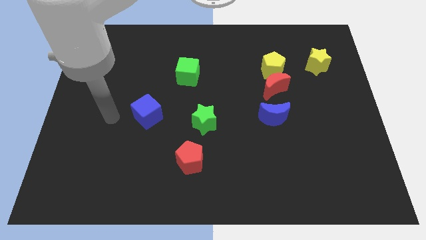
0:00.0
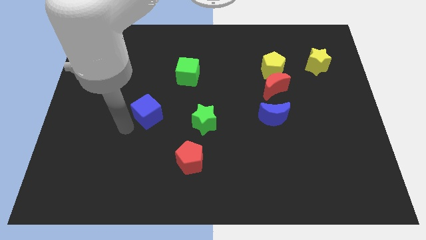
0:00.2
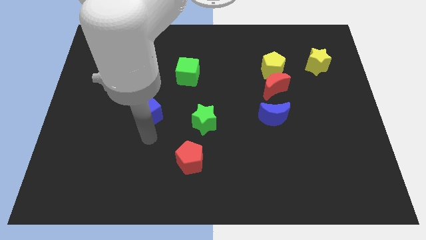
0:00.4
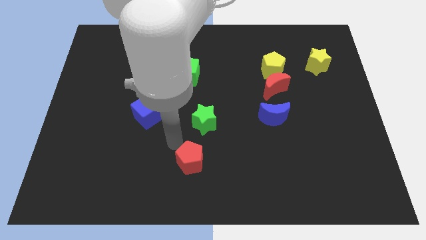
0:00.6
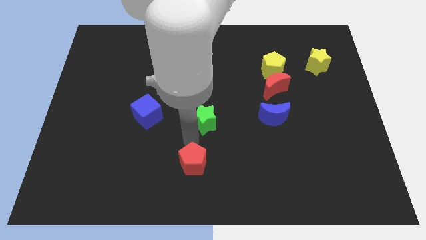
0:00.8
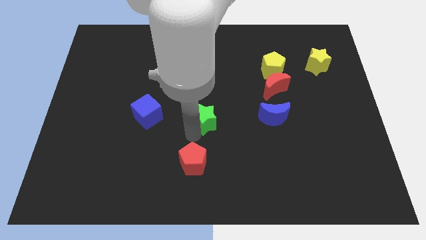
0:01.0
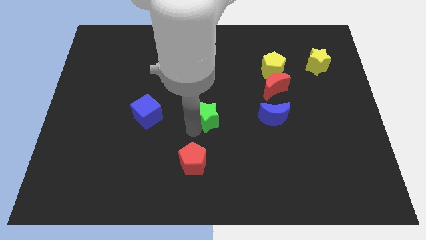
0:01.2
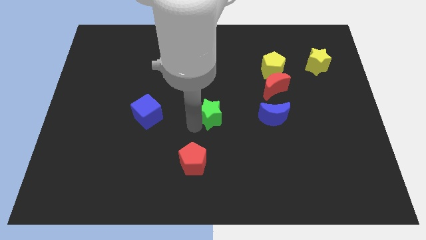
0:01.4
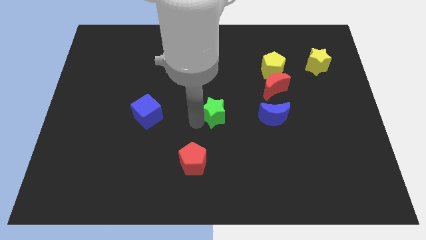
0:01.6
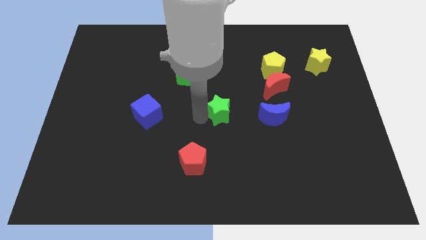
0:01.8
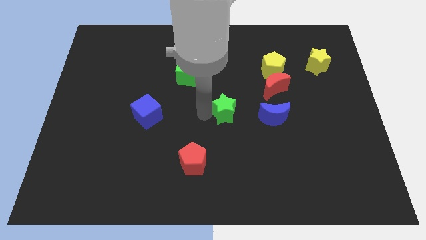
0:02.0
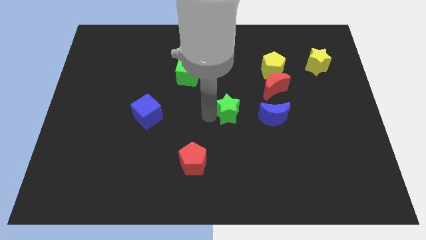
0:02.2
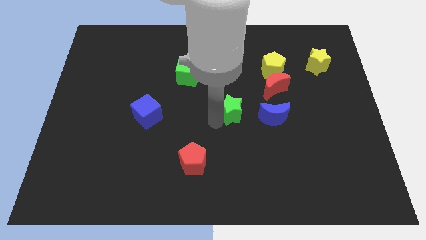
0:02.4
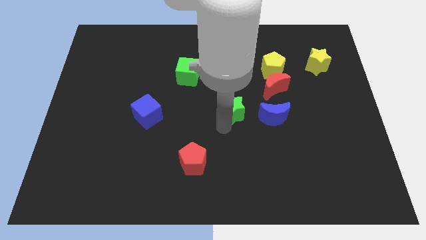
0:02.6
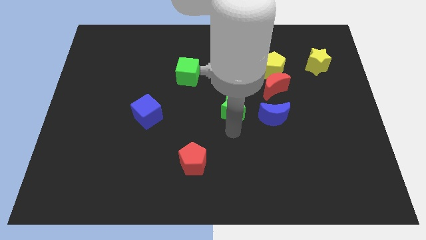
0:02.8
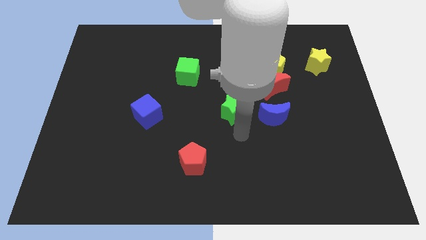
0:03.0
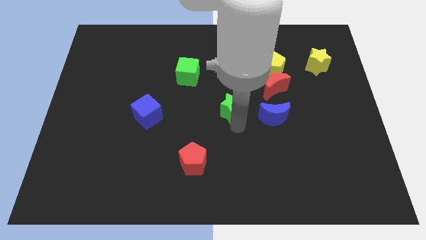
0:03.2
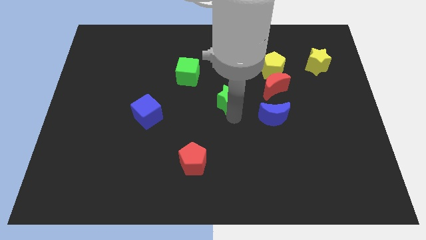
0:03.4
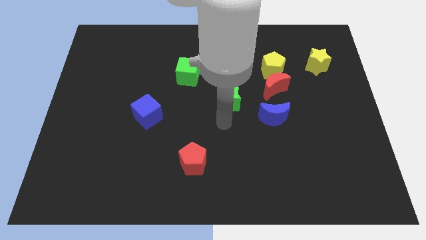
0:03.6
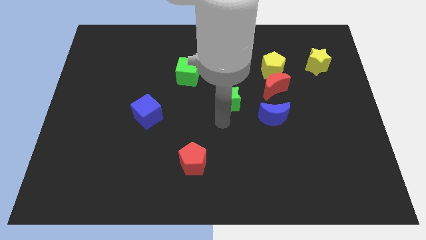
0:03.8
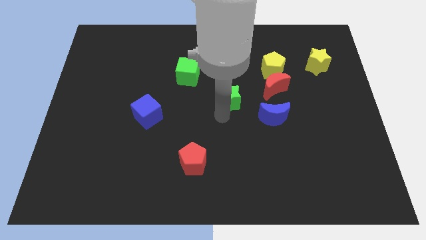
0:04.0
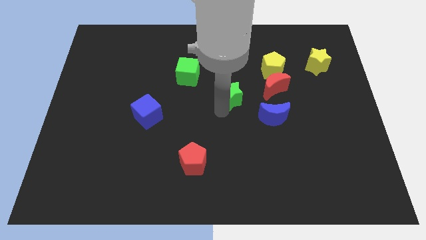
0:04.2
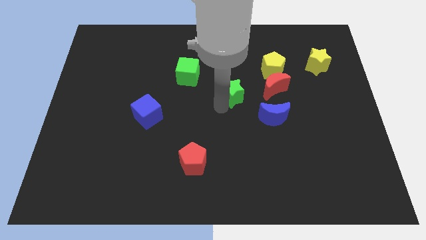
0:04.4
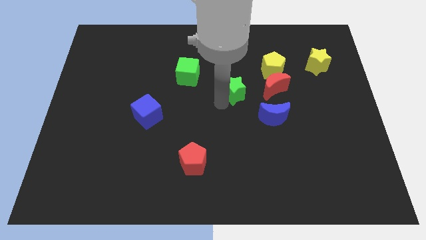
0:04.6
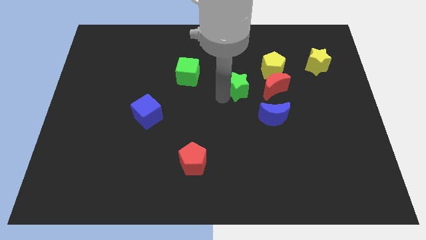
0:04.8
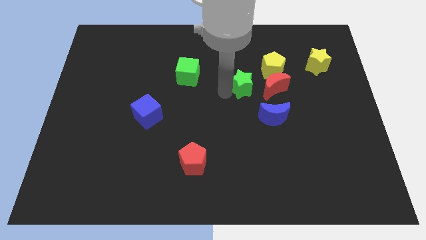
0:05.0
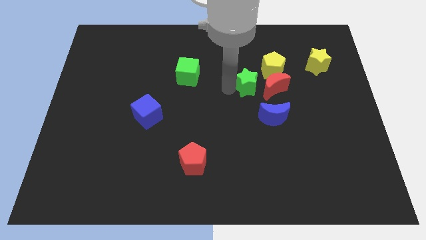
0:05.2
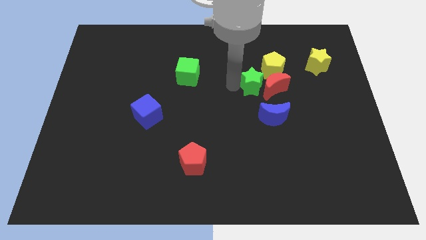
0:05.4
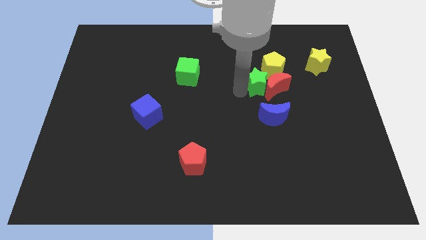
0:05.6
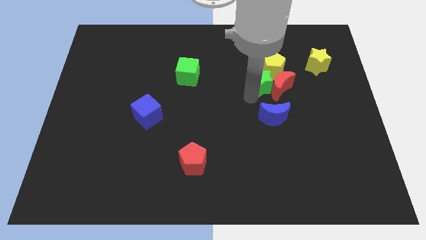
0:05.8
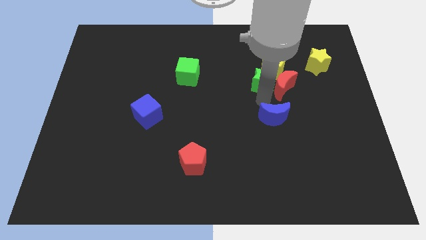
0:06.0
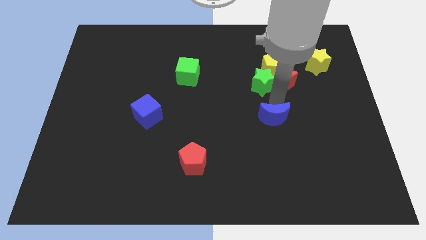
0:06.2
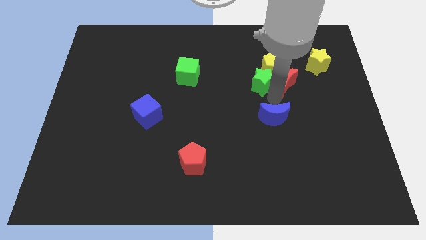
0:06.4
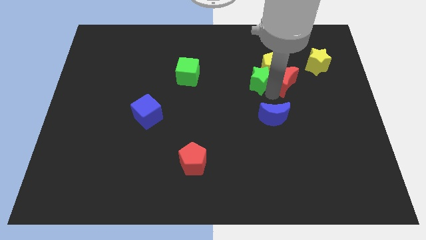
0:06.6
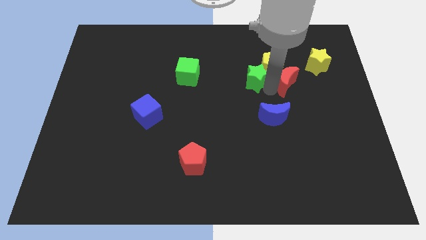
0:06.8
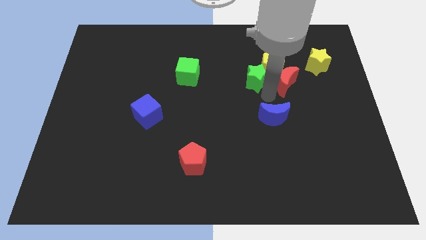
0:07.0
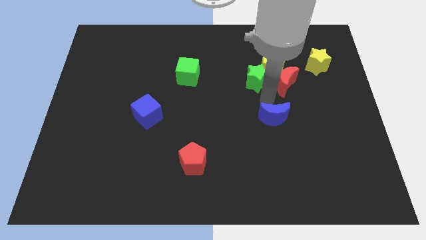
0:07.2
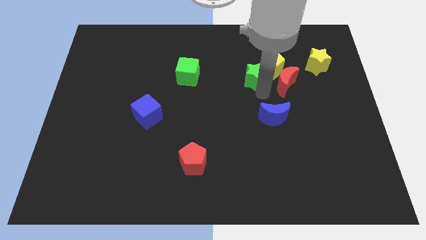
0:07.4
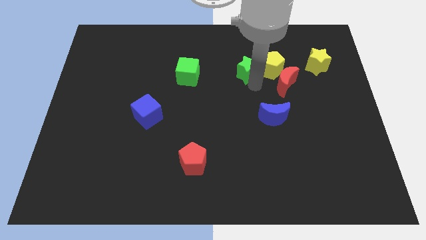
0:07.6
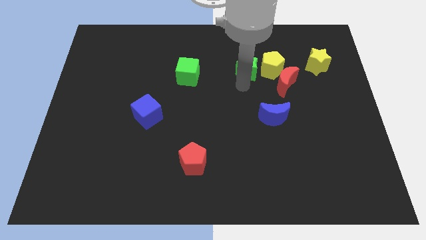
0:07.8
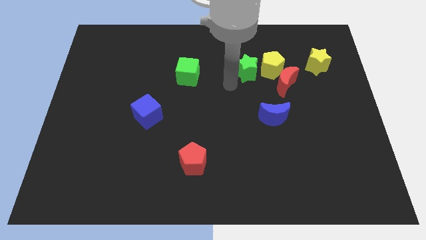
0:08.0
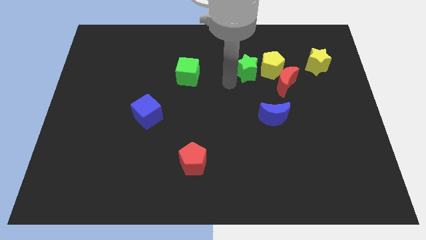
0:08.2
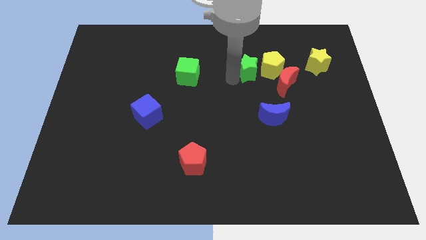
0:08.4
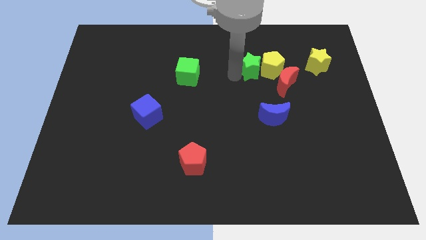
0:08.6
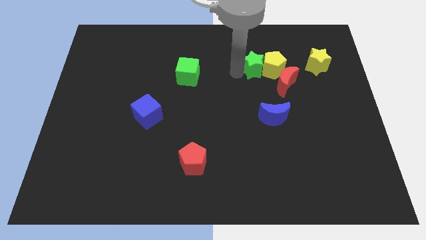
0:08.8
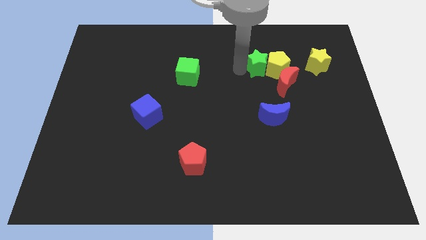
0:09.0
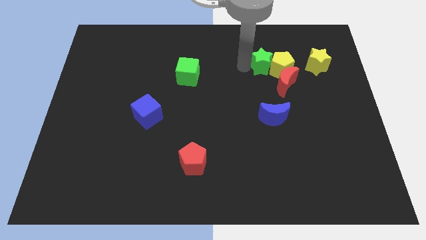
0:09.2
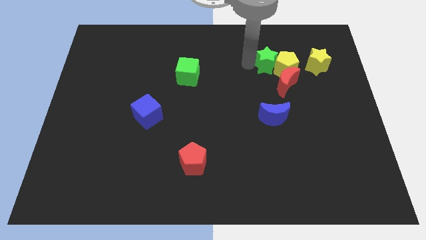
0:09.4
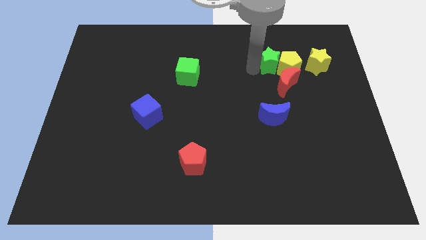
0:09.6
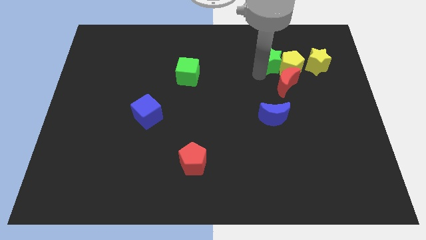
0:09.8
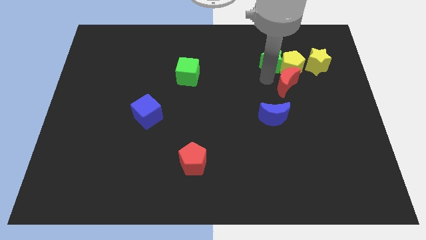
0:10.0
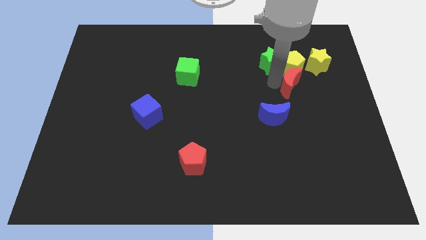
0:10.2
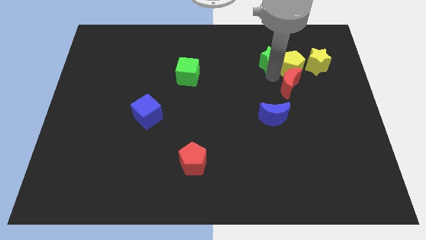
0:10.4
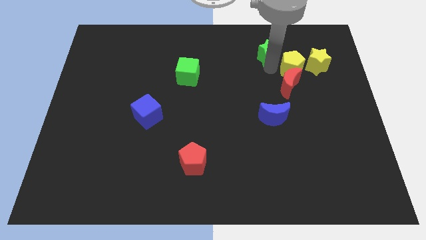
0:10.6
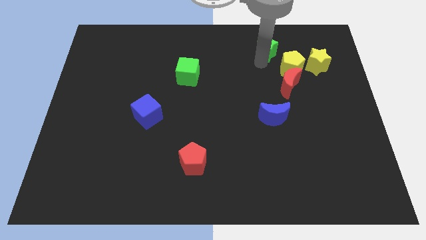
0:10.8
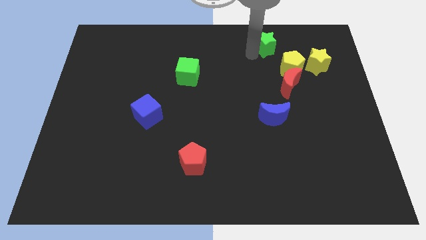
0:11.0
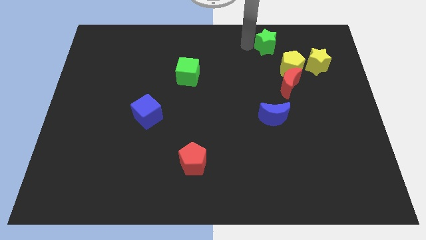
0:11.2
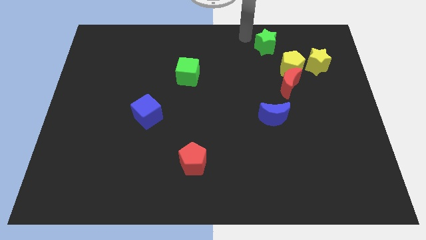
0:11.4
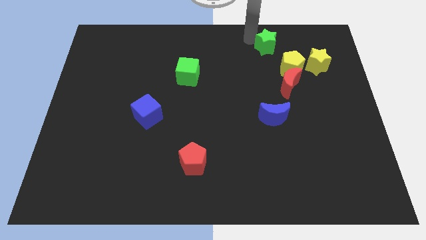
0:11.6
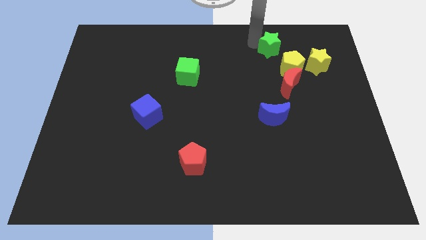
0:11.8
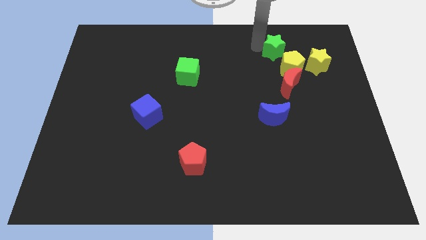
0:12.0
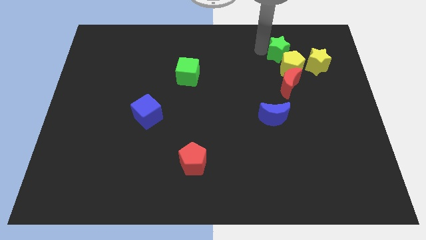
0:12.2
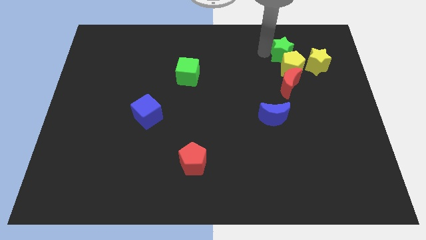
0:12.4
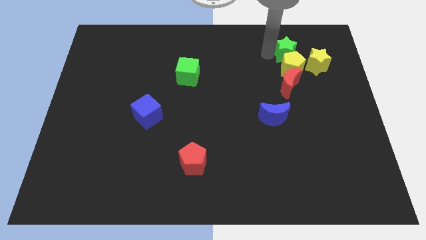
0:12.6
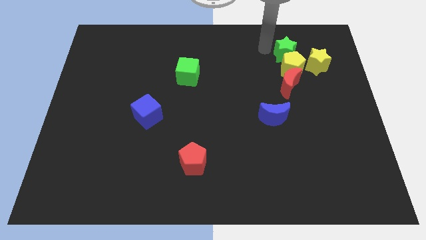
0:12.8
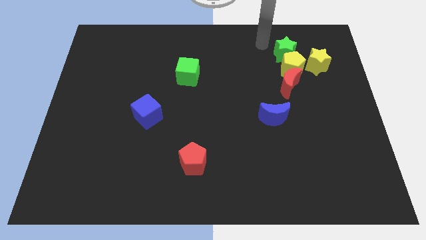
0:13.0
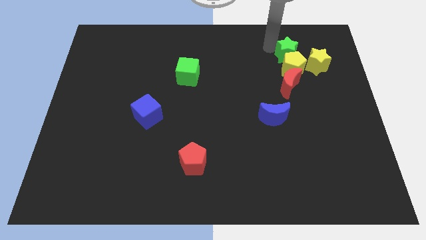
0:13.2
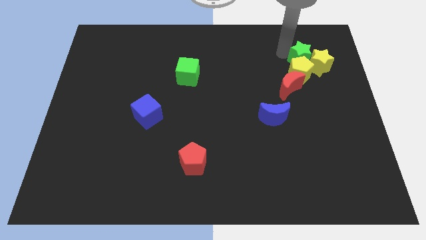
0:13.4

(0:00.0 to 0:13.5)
move the green star towards the yellow star

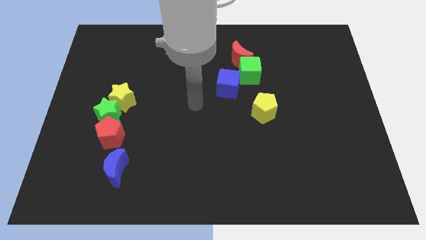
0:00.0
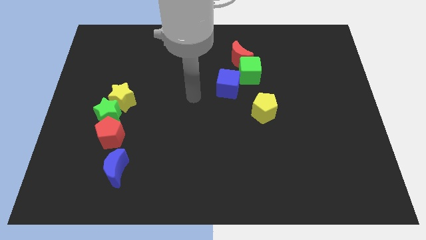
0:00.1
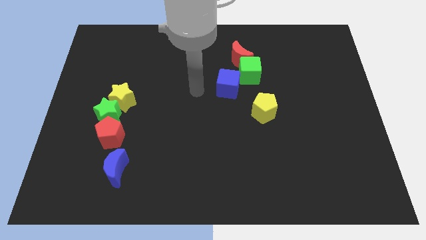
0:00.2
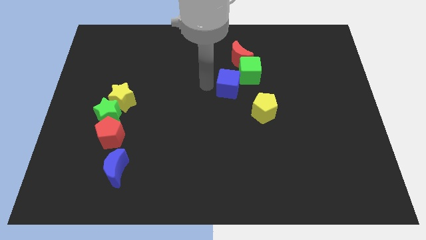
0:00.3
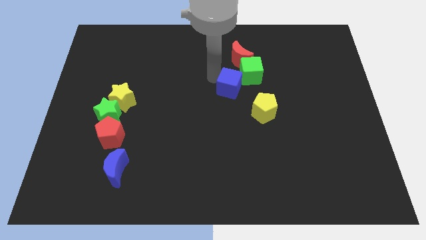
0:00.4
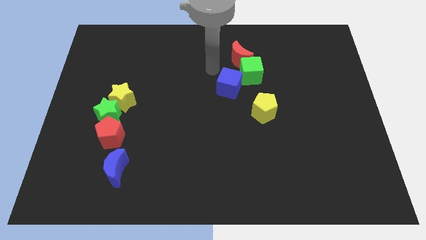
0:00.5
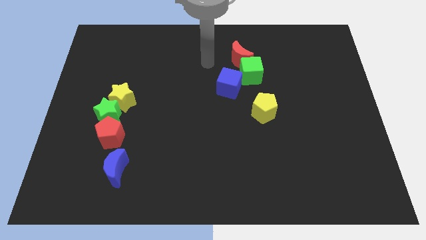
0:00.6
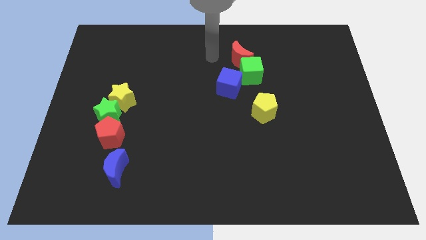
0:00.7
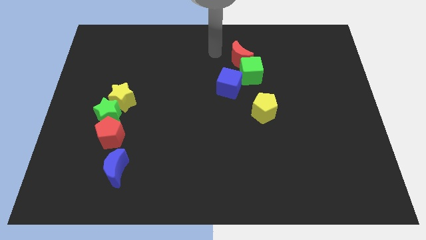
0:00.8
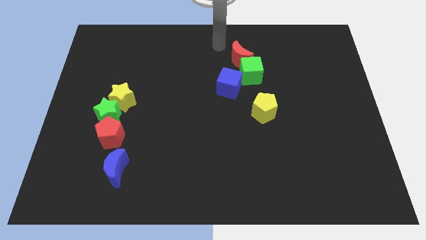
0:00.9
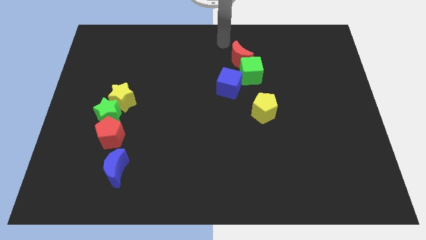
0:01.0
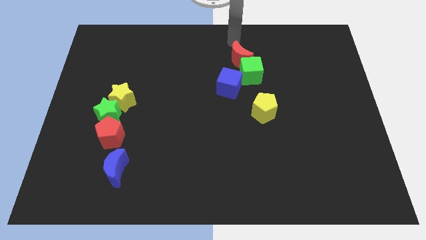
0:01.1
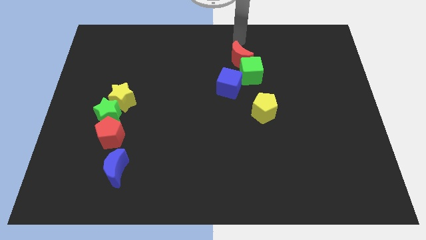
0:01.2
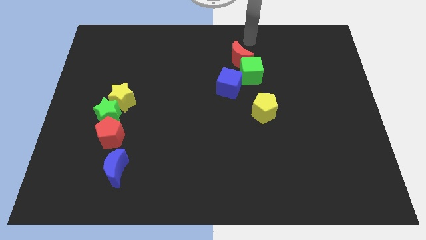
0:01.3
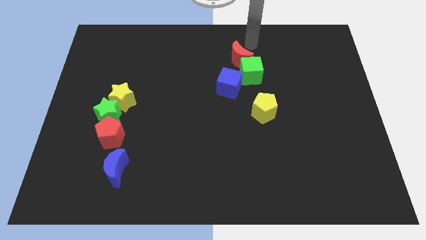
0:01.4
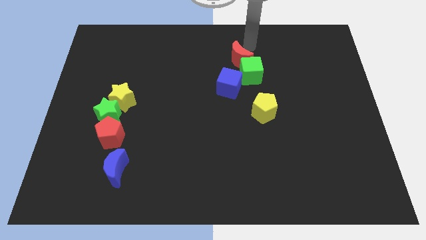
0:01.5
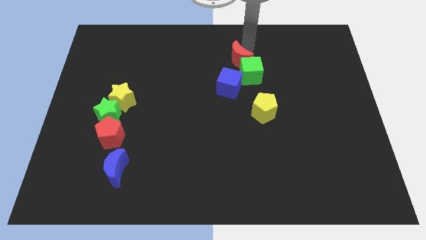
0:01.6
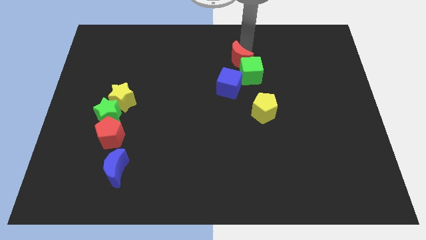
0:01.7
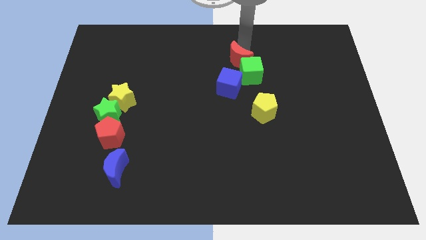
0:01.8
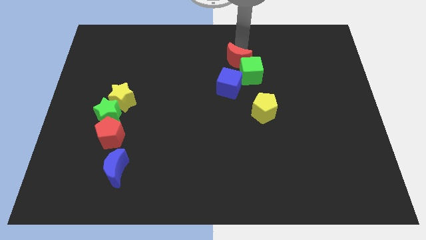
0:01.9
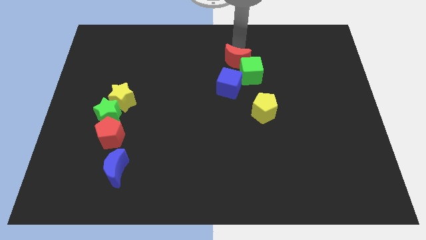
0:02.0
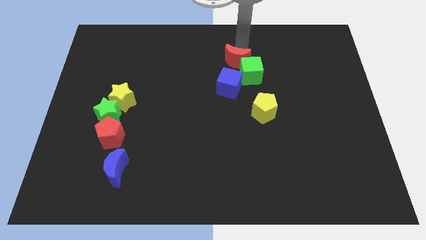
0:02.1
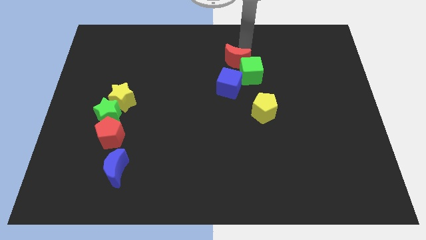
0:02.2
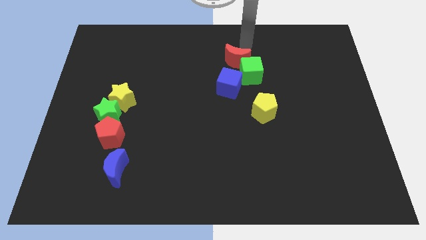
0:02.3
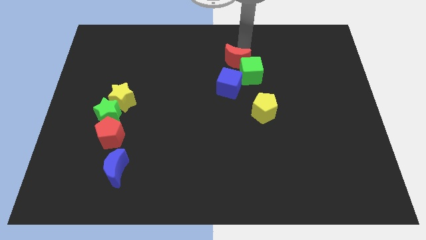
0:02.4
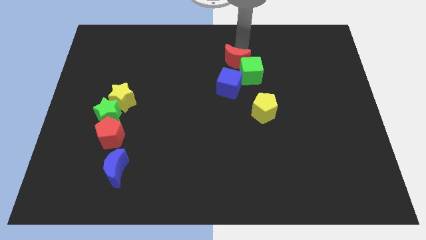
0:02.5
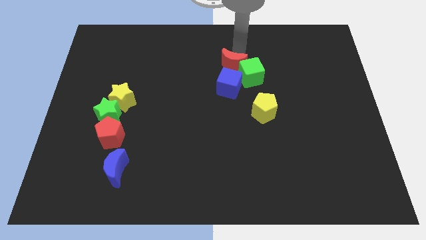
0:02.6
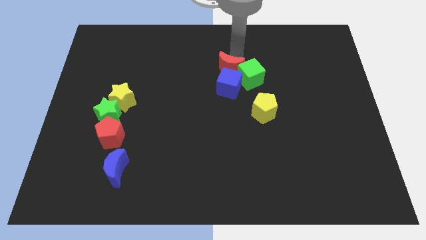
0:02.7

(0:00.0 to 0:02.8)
move the red moon next to the blue cube
